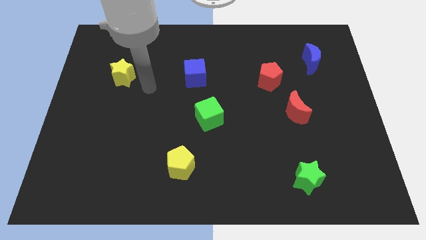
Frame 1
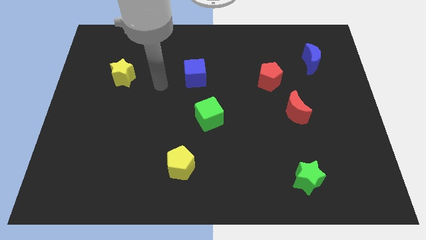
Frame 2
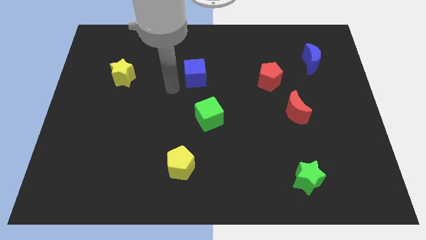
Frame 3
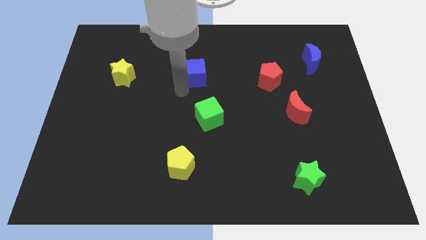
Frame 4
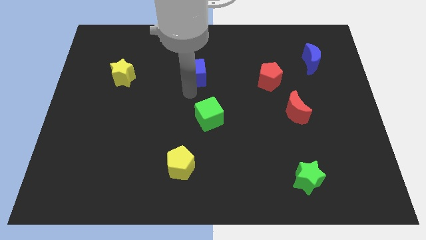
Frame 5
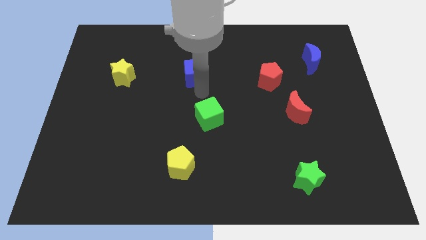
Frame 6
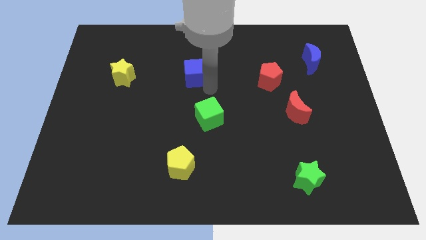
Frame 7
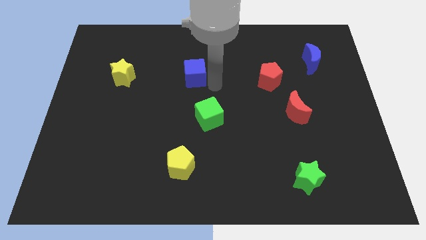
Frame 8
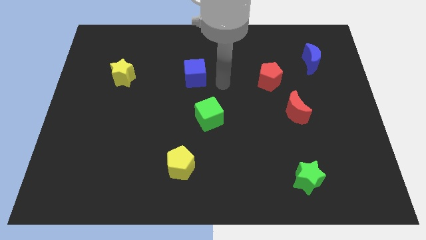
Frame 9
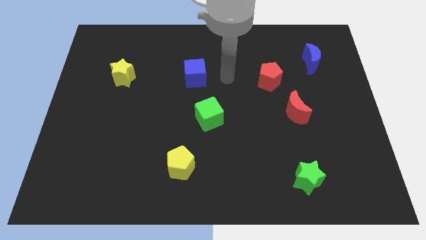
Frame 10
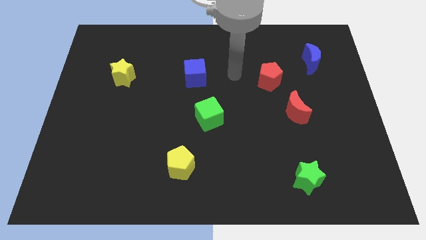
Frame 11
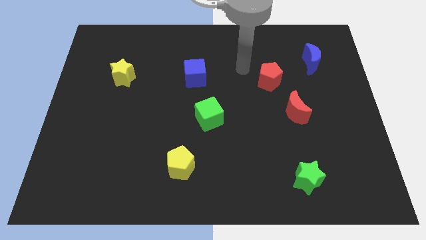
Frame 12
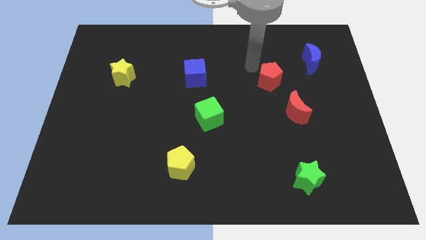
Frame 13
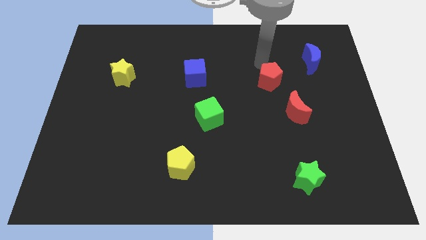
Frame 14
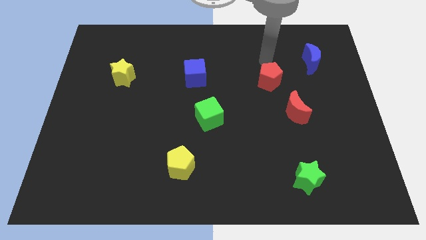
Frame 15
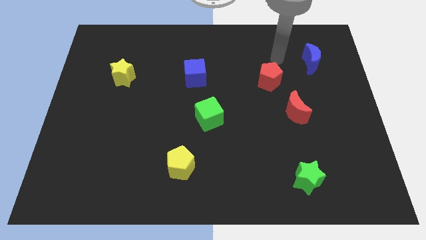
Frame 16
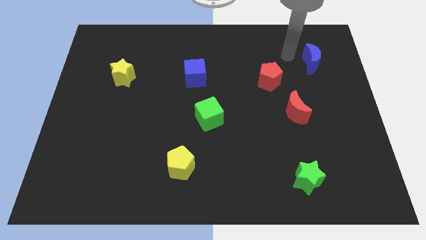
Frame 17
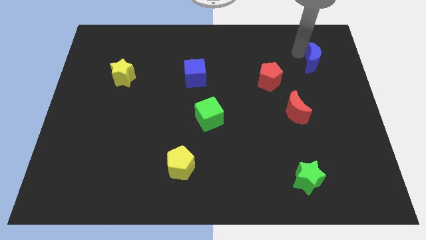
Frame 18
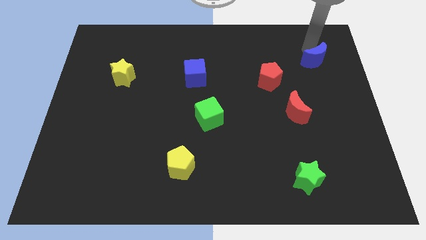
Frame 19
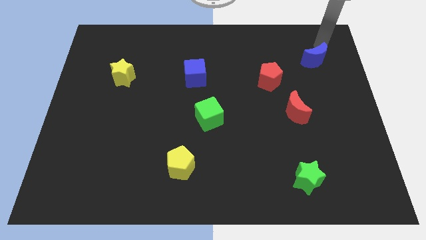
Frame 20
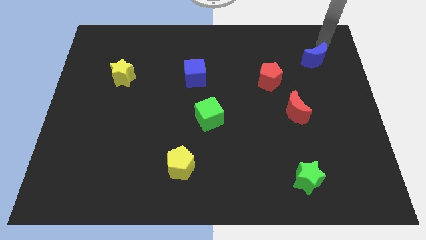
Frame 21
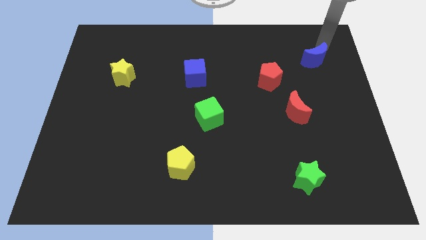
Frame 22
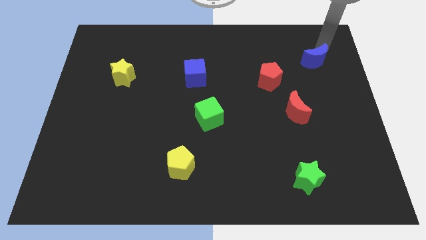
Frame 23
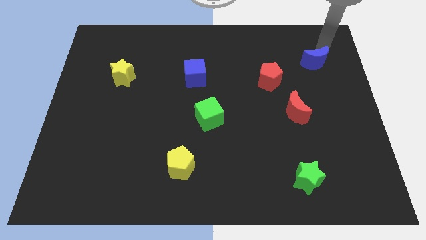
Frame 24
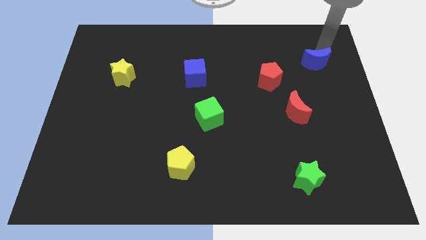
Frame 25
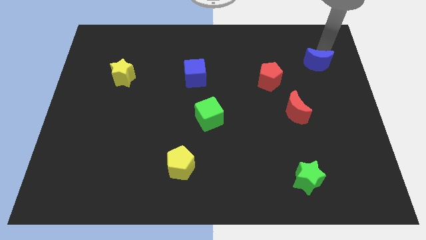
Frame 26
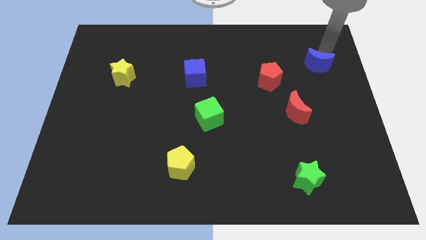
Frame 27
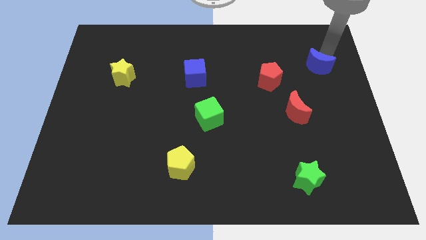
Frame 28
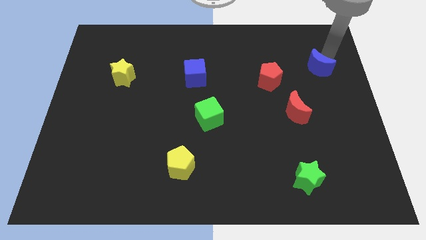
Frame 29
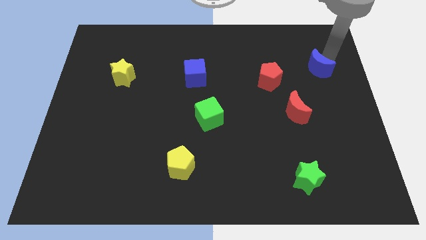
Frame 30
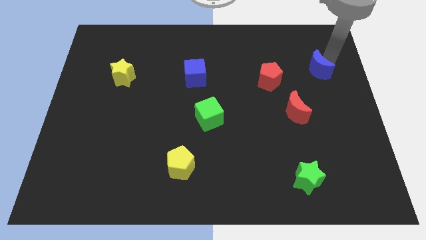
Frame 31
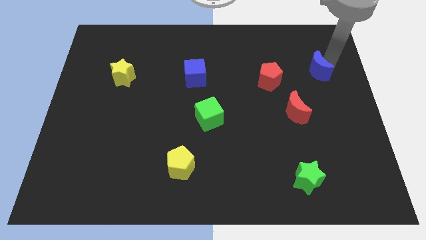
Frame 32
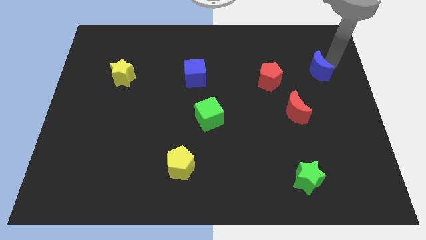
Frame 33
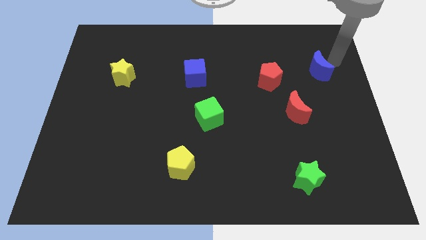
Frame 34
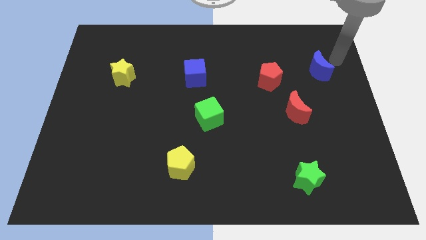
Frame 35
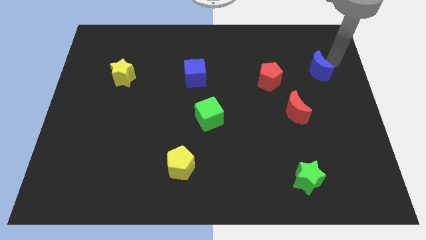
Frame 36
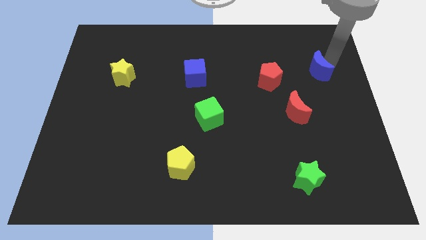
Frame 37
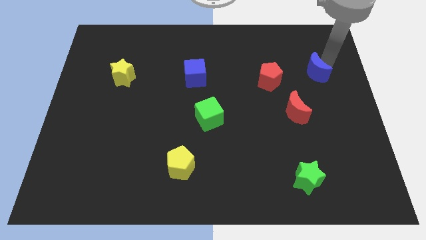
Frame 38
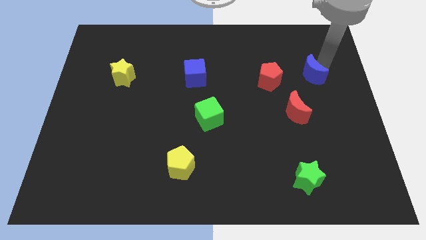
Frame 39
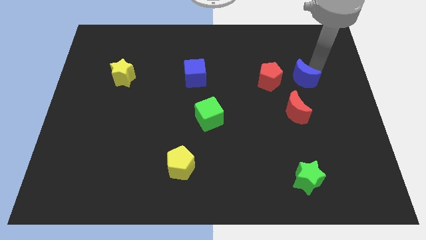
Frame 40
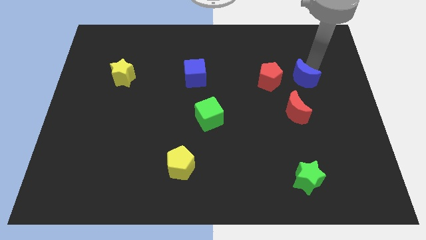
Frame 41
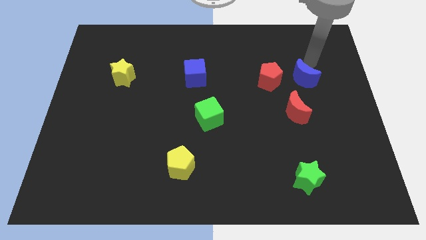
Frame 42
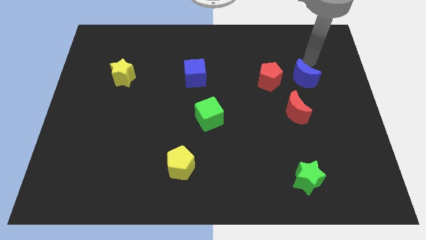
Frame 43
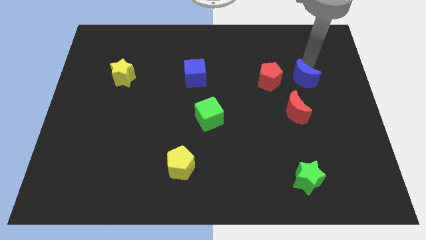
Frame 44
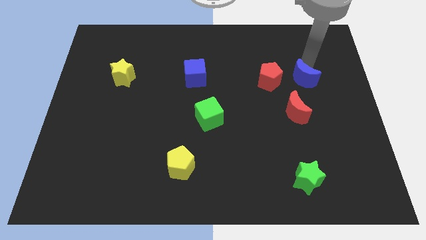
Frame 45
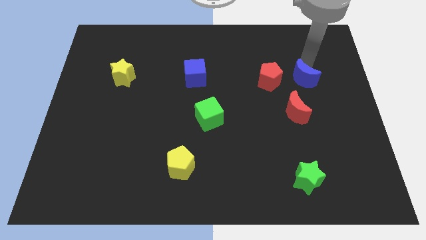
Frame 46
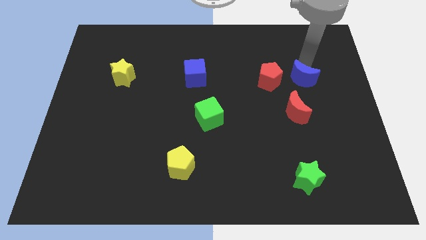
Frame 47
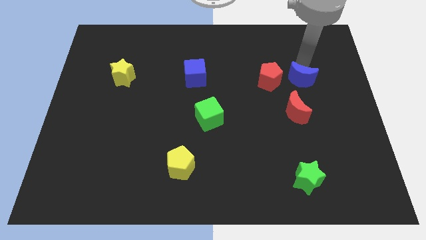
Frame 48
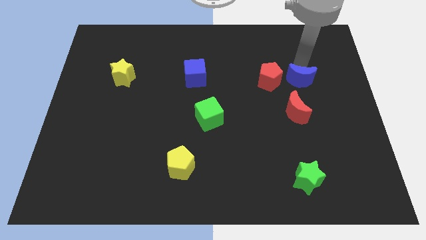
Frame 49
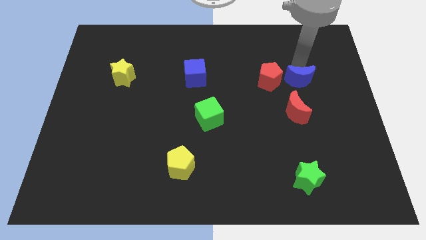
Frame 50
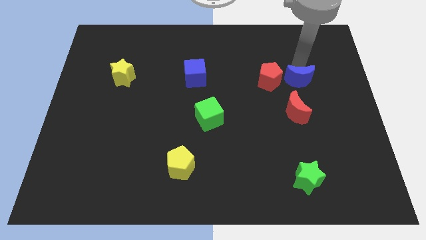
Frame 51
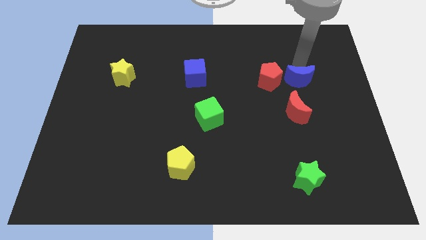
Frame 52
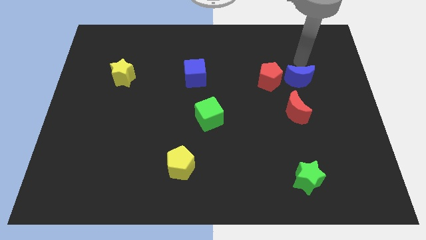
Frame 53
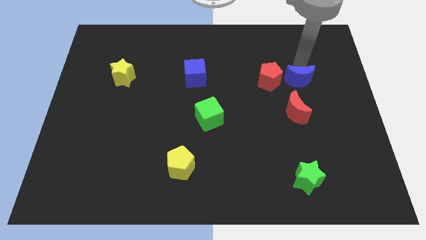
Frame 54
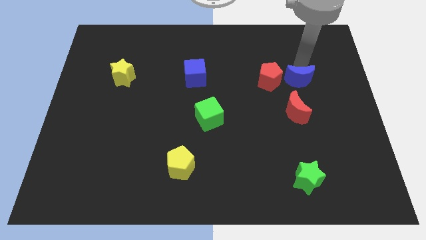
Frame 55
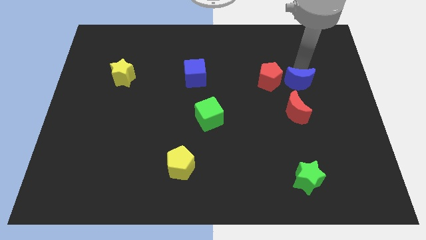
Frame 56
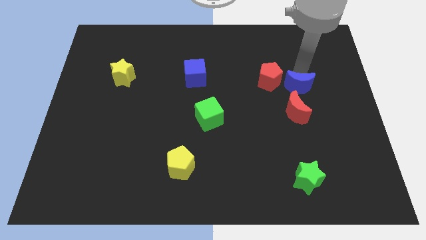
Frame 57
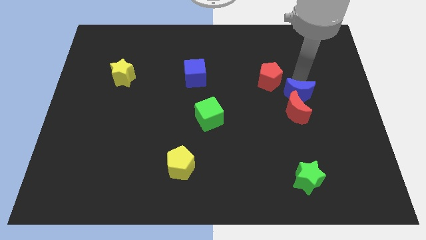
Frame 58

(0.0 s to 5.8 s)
slide the blue moon towards the red moon

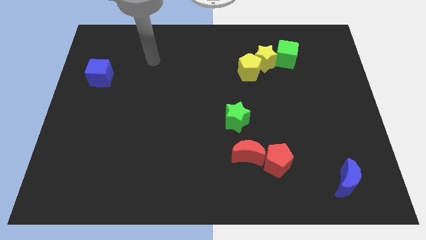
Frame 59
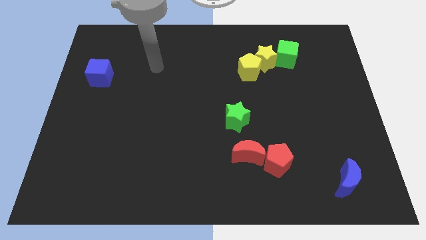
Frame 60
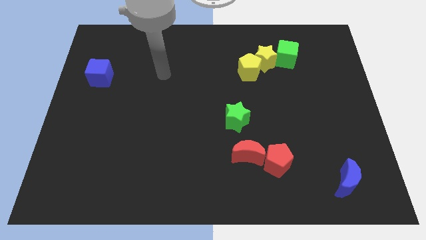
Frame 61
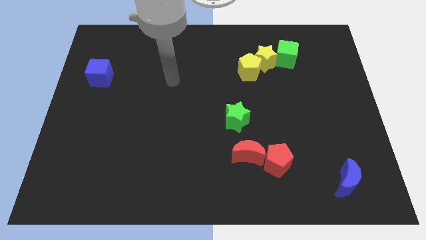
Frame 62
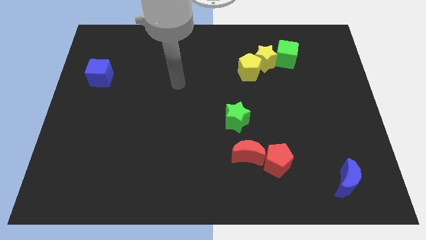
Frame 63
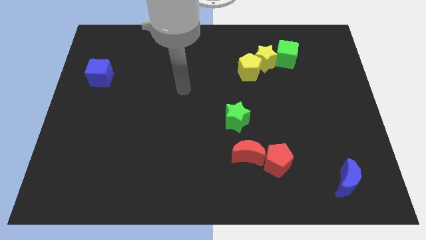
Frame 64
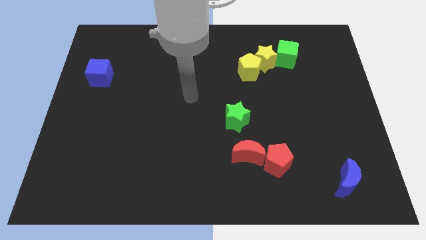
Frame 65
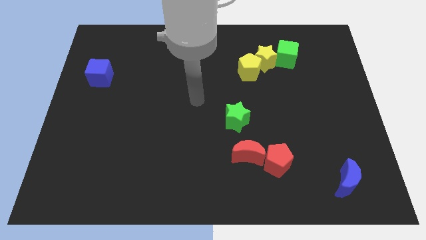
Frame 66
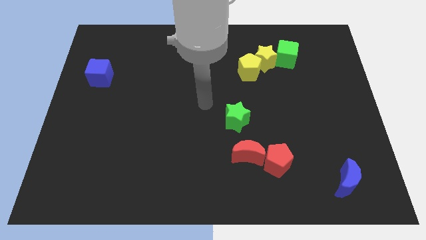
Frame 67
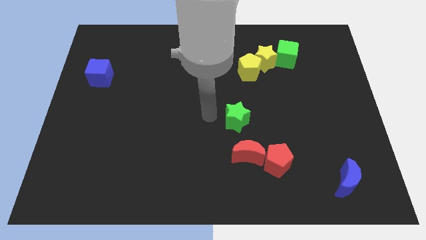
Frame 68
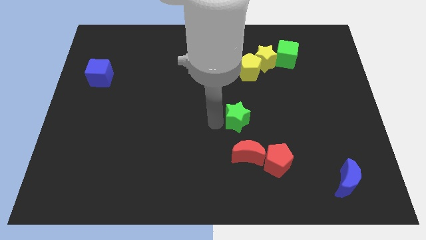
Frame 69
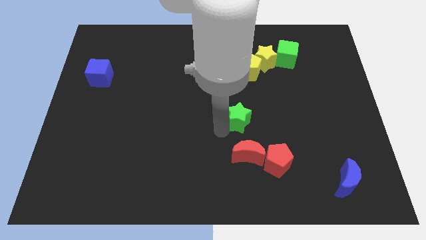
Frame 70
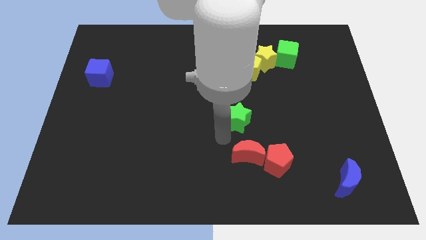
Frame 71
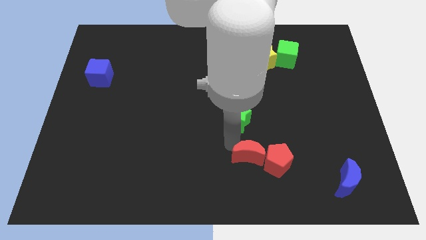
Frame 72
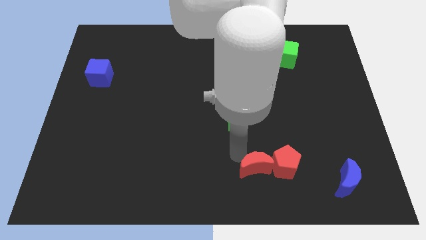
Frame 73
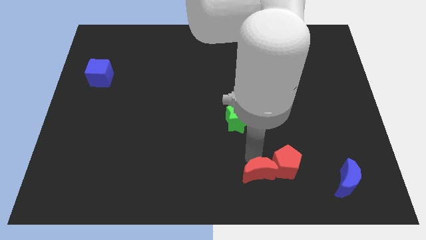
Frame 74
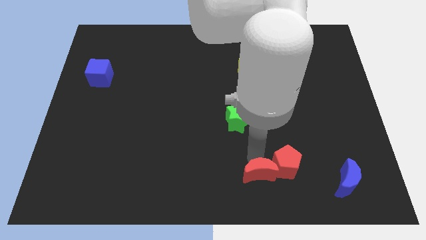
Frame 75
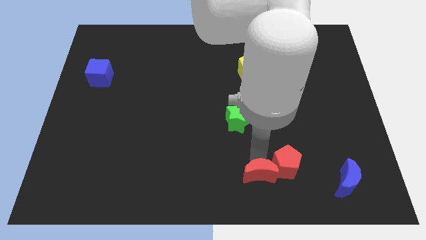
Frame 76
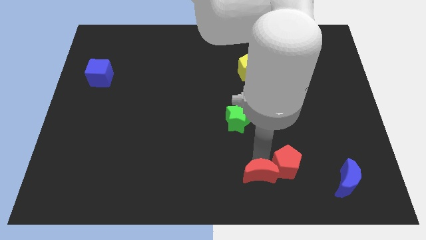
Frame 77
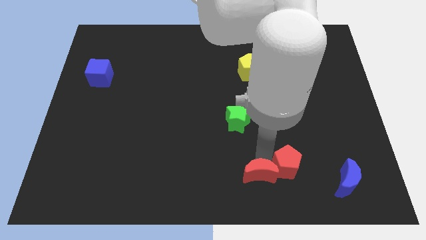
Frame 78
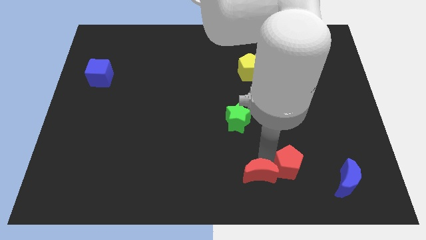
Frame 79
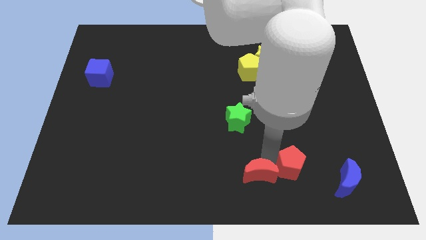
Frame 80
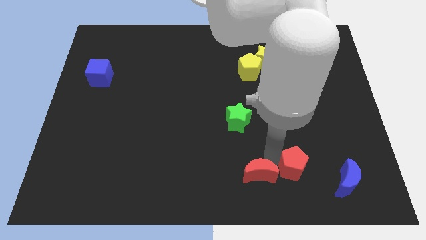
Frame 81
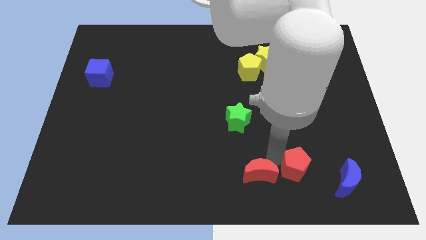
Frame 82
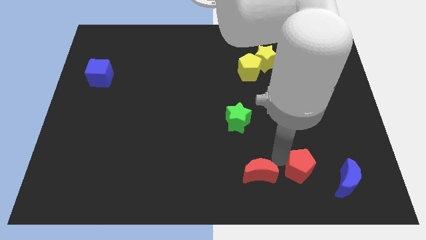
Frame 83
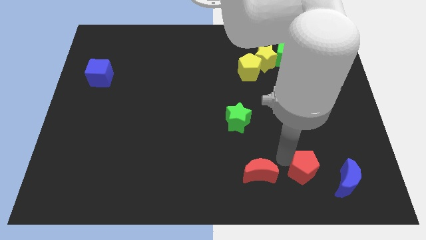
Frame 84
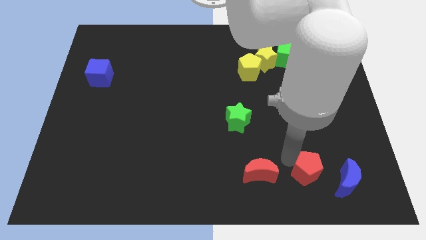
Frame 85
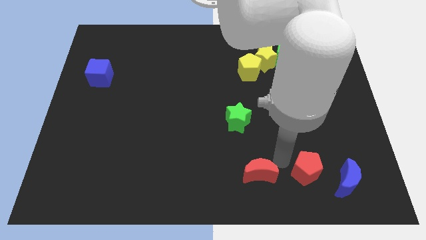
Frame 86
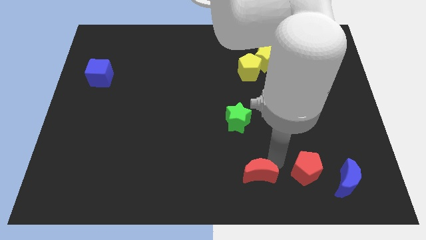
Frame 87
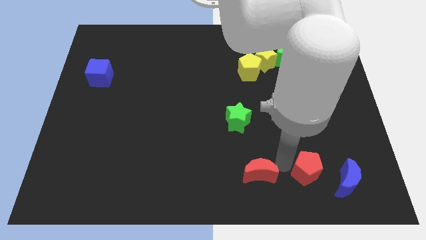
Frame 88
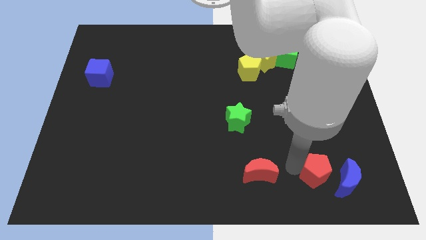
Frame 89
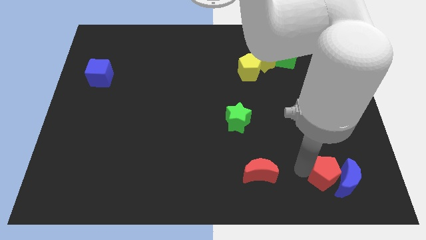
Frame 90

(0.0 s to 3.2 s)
push the red pentagon close to the blue moon
